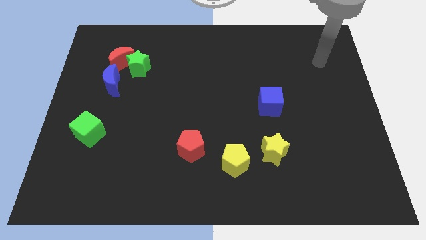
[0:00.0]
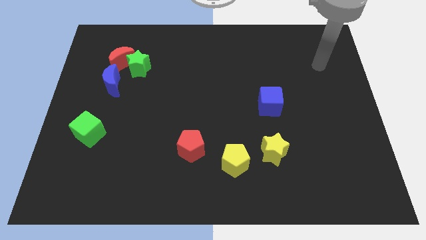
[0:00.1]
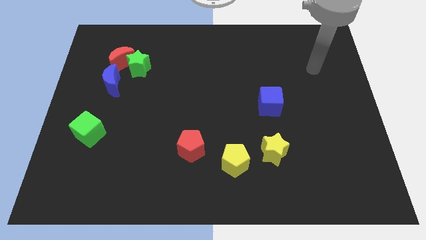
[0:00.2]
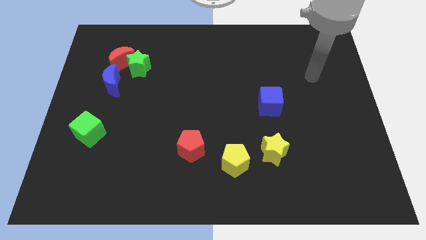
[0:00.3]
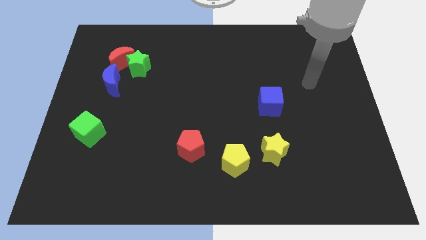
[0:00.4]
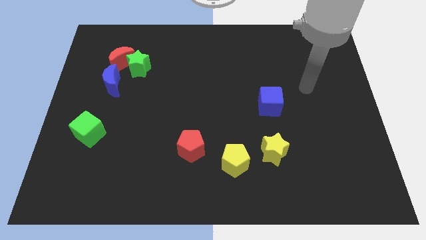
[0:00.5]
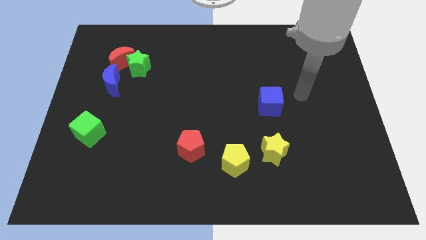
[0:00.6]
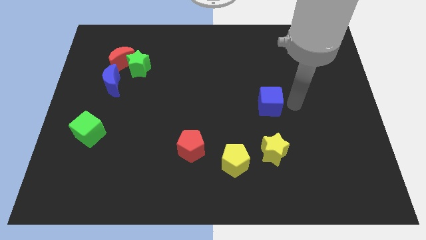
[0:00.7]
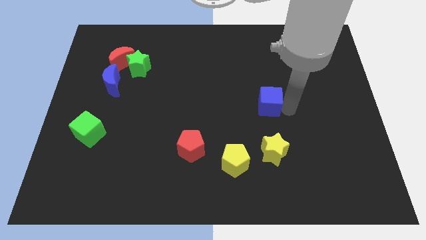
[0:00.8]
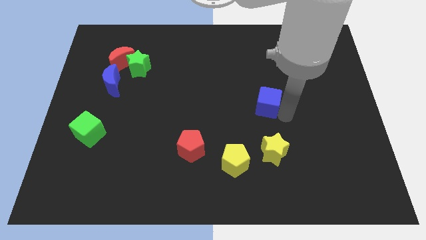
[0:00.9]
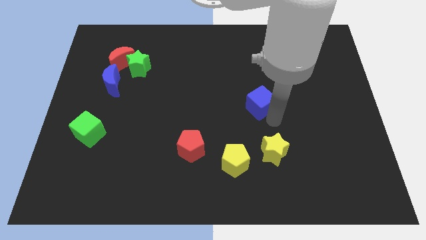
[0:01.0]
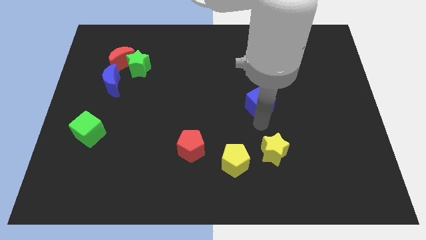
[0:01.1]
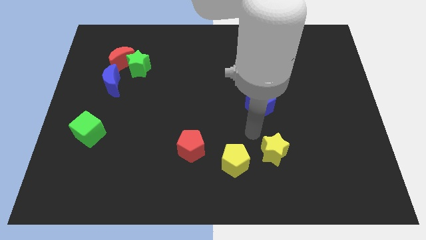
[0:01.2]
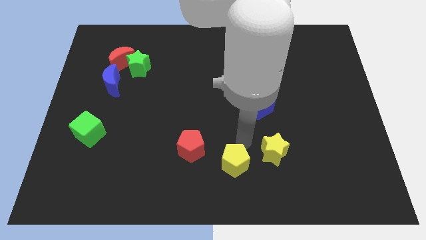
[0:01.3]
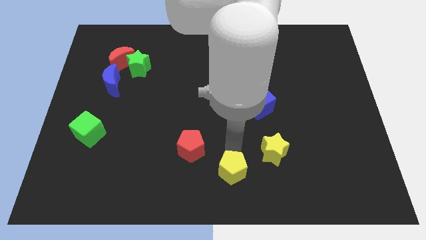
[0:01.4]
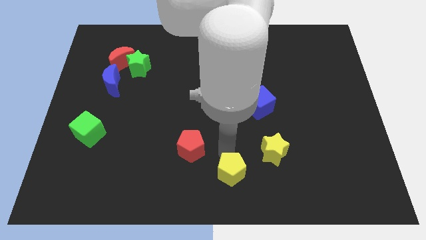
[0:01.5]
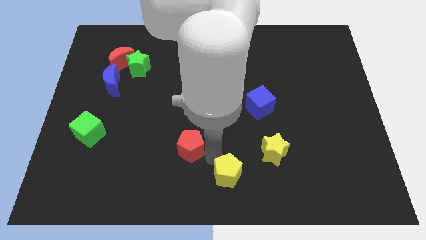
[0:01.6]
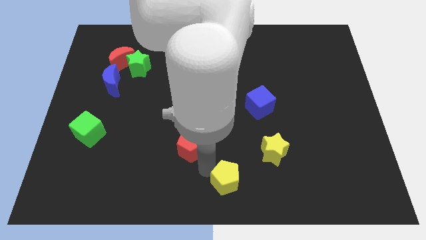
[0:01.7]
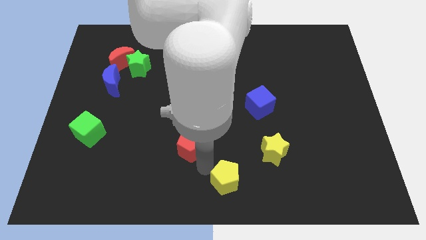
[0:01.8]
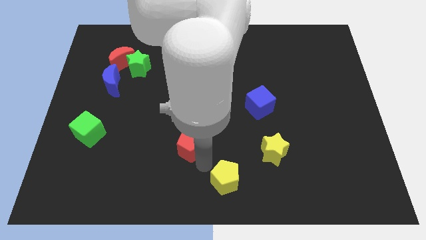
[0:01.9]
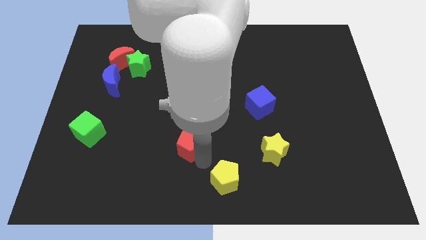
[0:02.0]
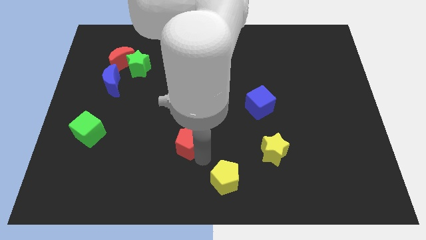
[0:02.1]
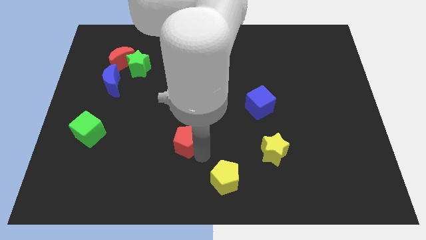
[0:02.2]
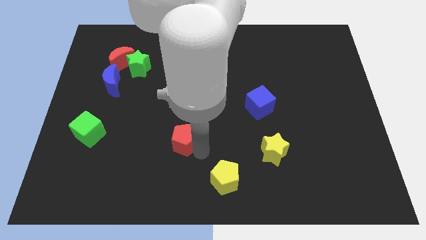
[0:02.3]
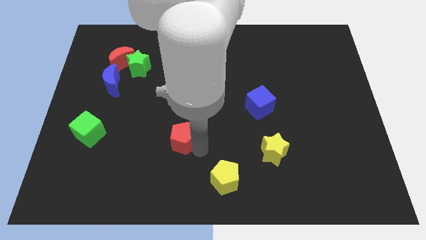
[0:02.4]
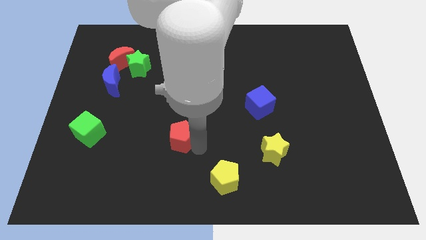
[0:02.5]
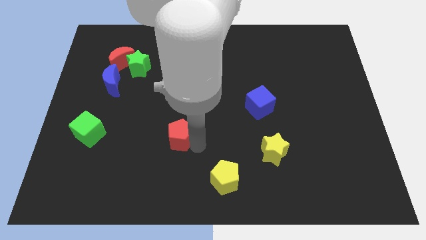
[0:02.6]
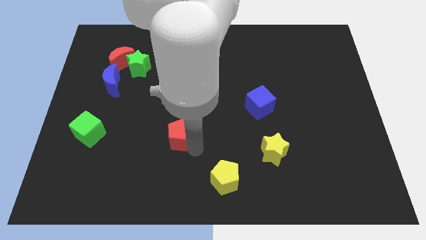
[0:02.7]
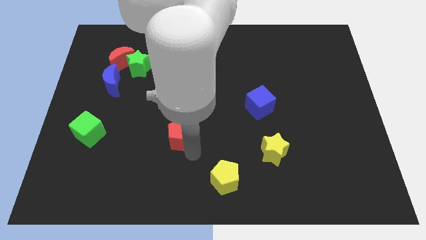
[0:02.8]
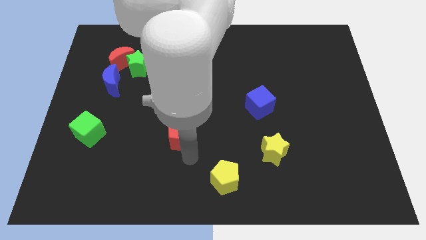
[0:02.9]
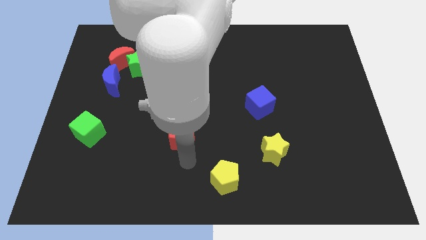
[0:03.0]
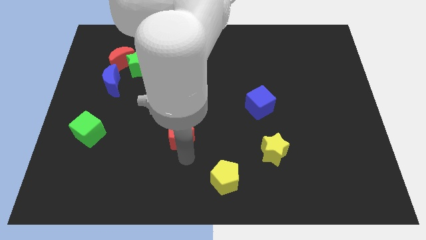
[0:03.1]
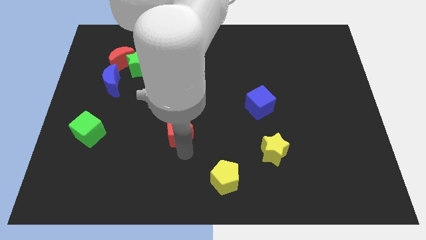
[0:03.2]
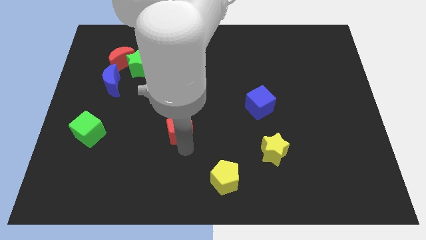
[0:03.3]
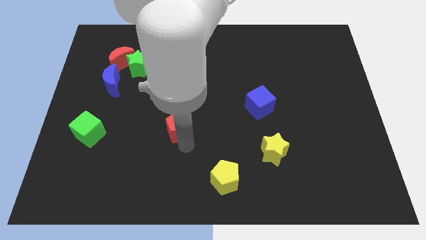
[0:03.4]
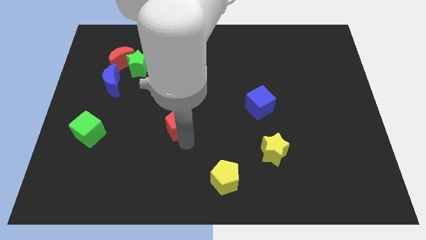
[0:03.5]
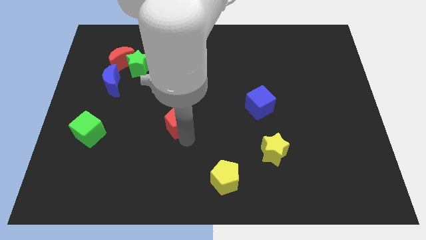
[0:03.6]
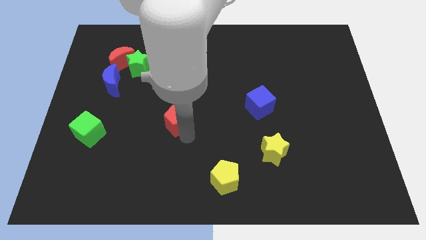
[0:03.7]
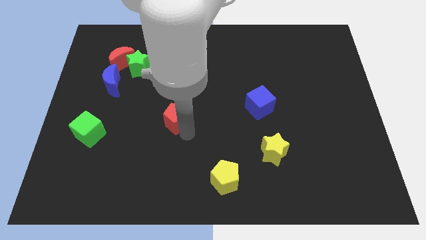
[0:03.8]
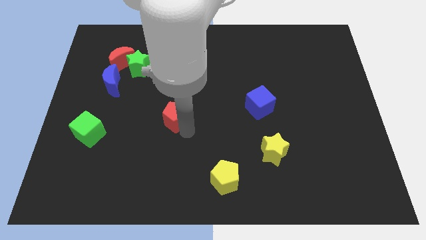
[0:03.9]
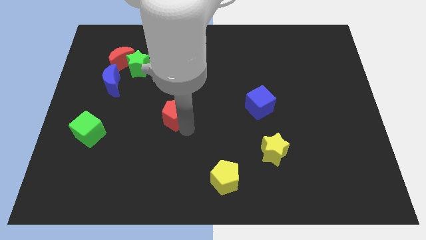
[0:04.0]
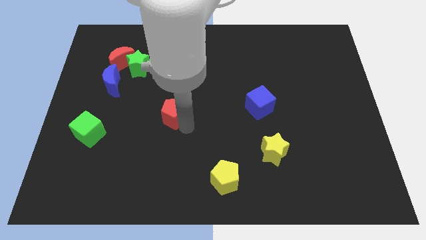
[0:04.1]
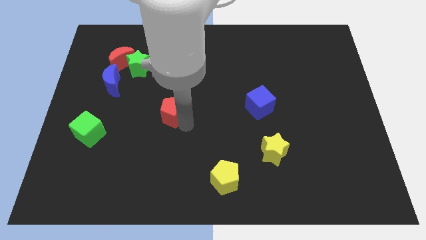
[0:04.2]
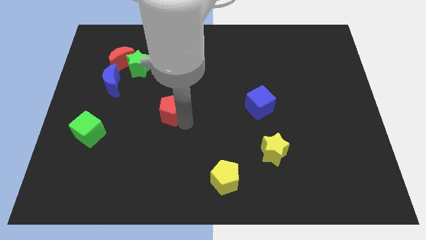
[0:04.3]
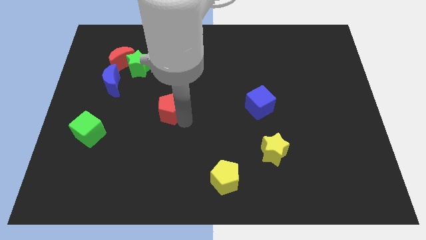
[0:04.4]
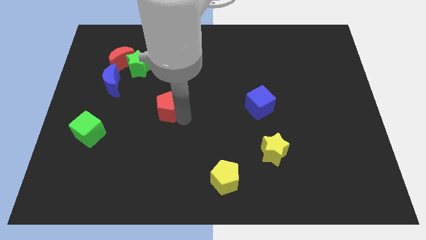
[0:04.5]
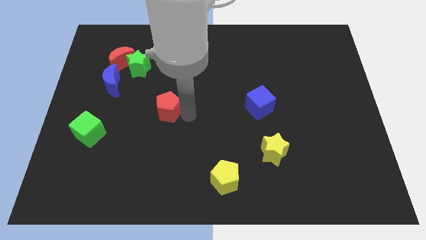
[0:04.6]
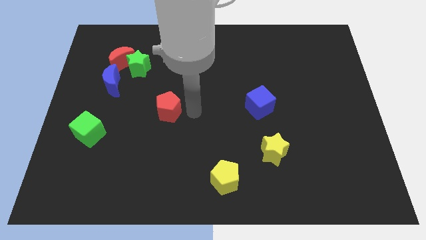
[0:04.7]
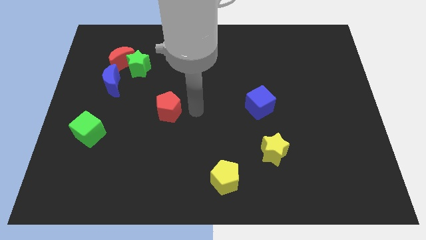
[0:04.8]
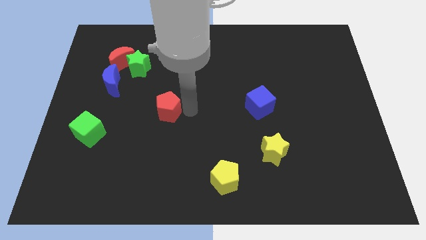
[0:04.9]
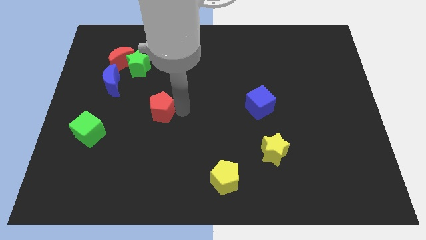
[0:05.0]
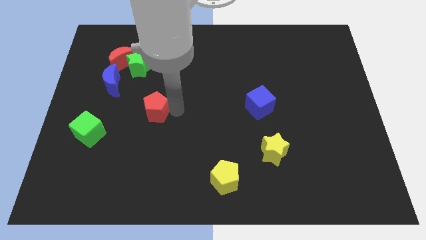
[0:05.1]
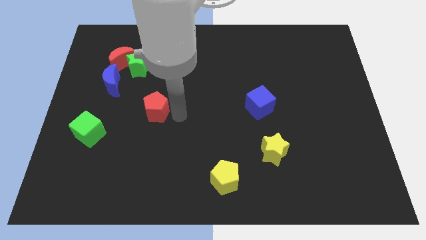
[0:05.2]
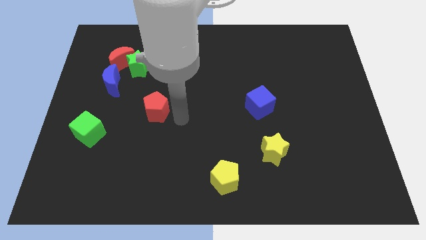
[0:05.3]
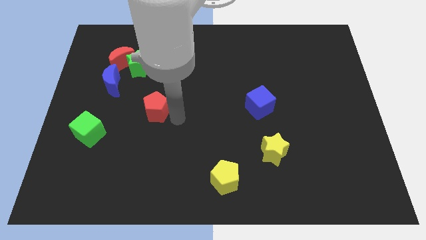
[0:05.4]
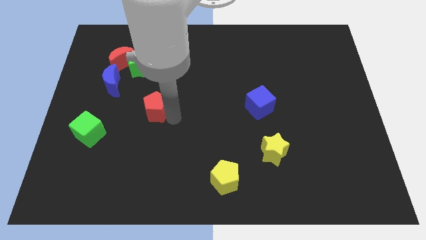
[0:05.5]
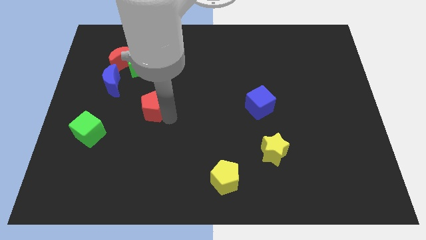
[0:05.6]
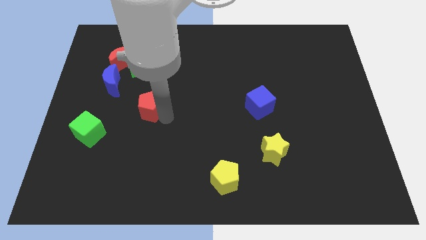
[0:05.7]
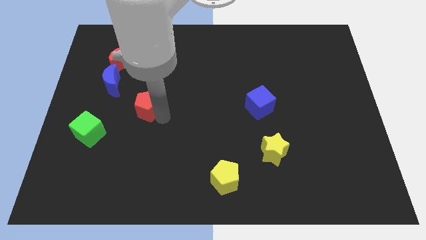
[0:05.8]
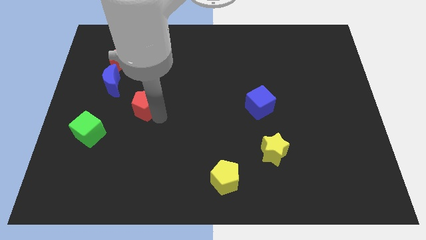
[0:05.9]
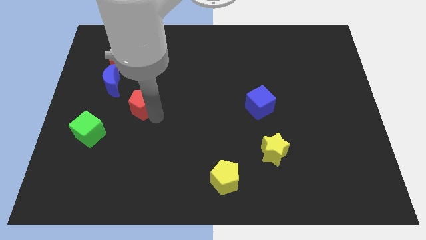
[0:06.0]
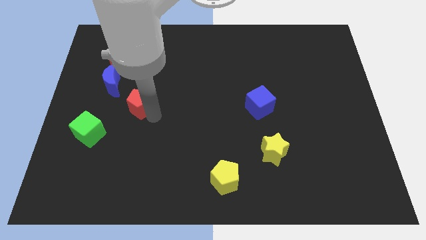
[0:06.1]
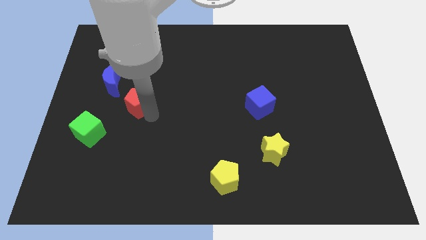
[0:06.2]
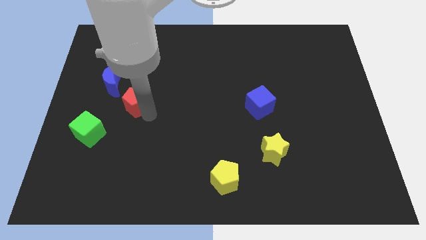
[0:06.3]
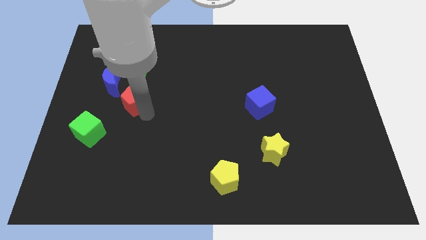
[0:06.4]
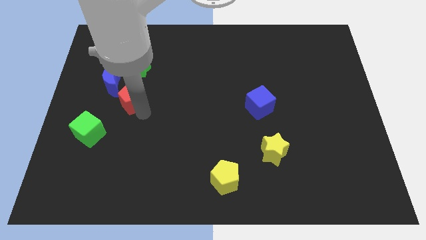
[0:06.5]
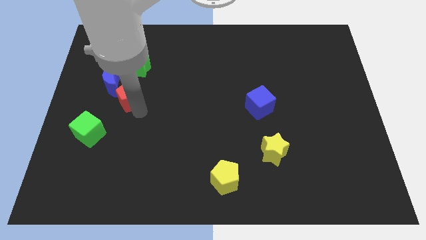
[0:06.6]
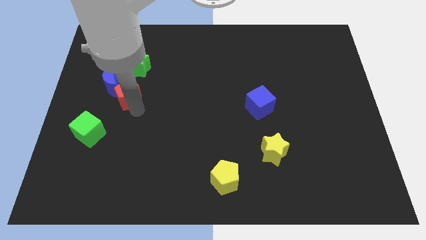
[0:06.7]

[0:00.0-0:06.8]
slide the red pentagon close to the blue moon

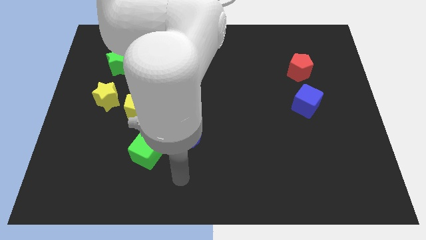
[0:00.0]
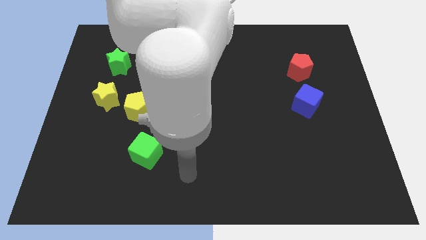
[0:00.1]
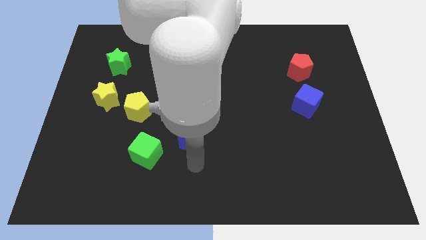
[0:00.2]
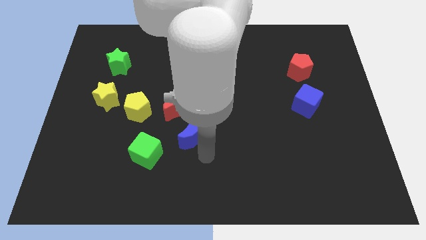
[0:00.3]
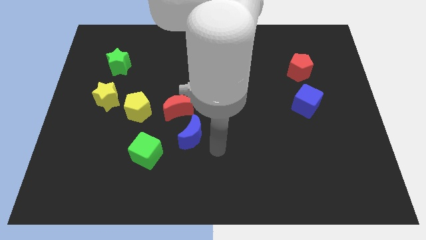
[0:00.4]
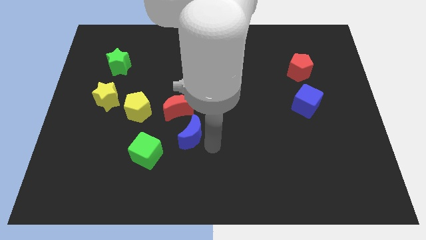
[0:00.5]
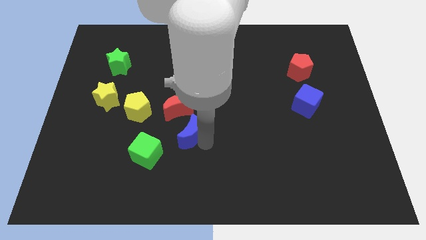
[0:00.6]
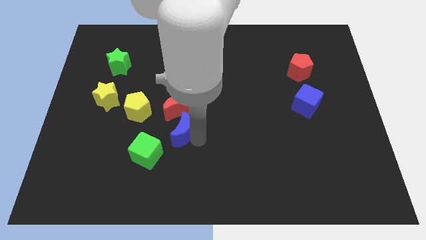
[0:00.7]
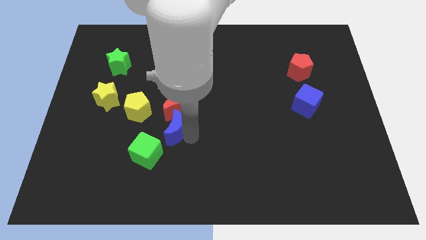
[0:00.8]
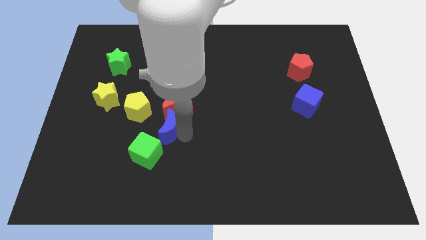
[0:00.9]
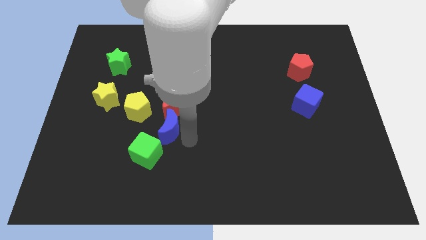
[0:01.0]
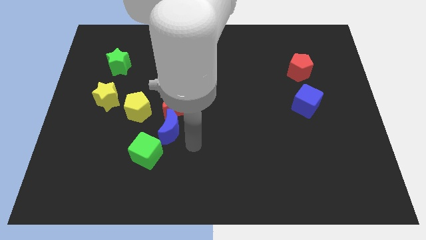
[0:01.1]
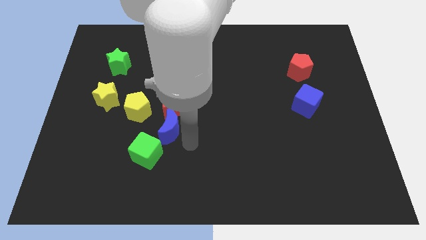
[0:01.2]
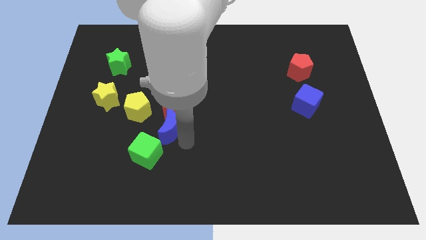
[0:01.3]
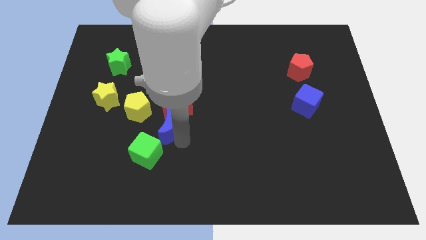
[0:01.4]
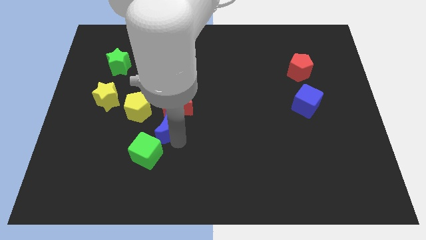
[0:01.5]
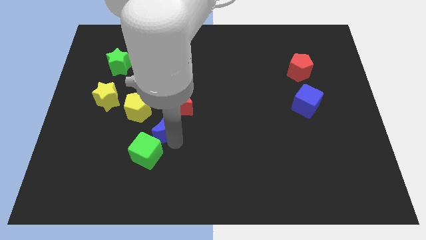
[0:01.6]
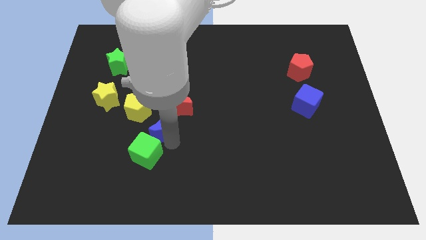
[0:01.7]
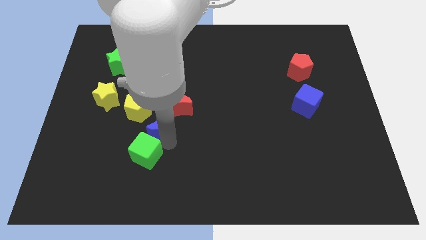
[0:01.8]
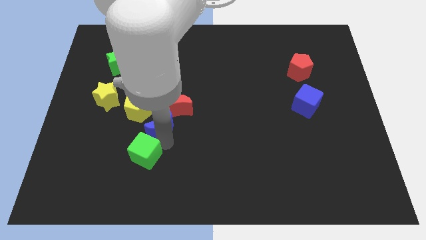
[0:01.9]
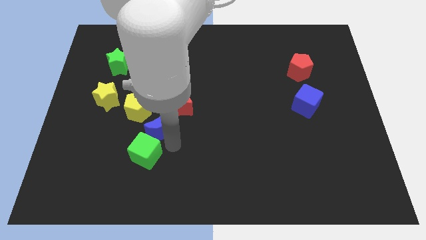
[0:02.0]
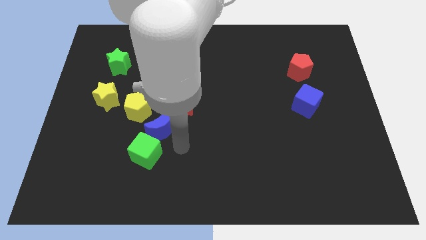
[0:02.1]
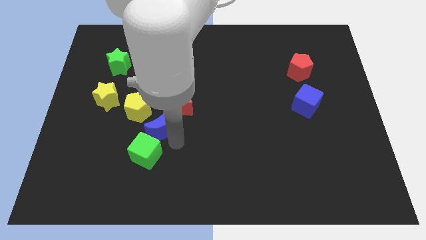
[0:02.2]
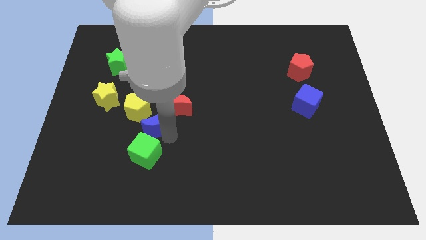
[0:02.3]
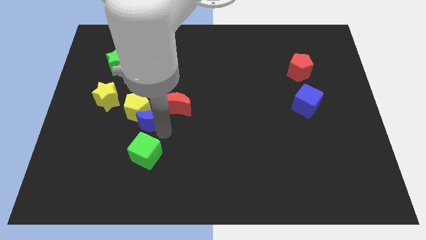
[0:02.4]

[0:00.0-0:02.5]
move the blue moon next to the yellow pentagon
